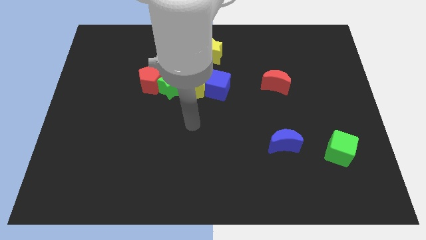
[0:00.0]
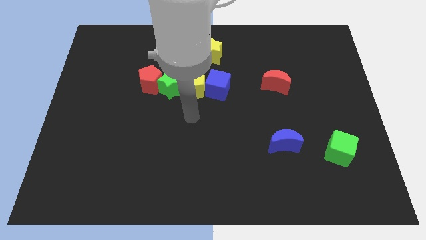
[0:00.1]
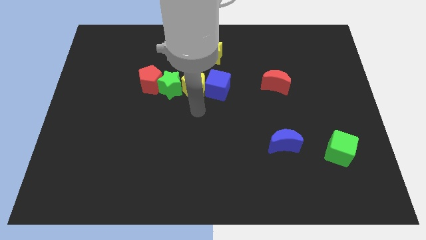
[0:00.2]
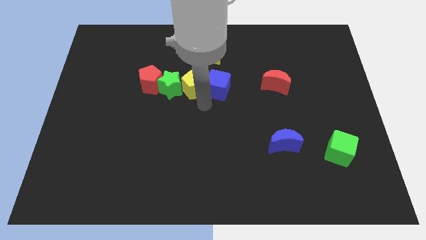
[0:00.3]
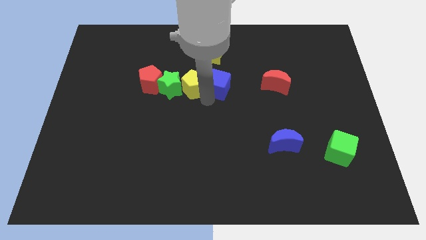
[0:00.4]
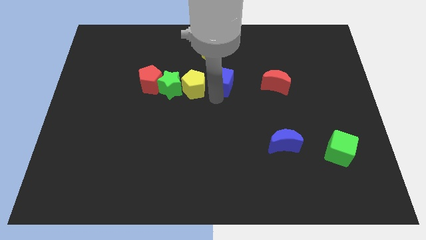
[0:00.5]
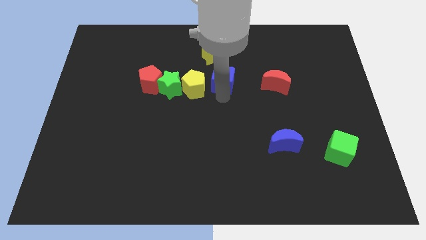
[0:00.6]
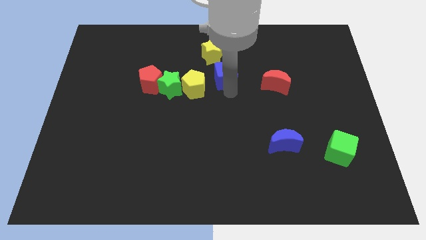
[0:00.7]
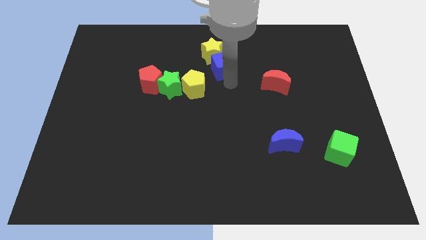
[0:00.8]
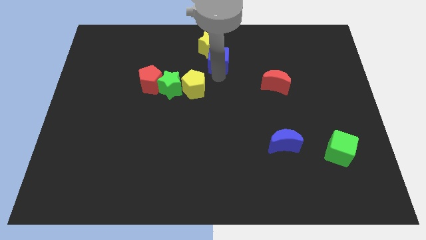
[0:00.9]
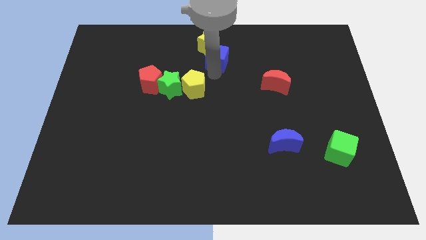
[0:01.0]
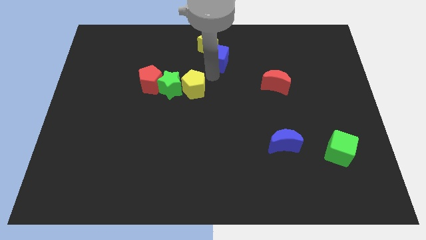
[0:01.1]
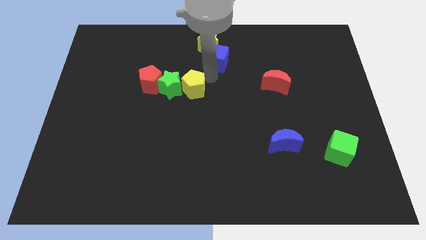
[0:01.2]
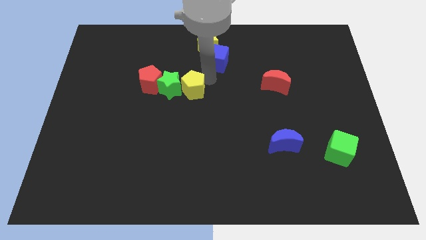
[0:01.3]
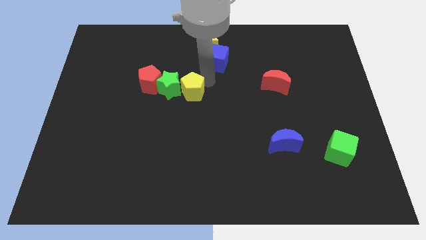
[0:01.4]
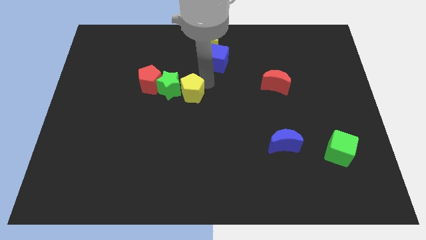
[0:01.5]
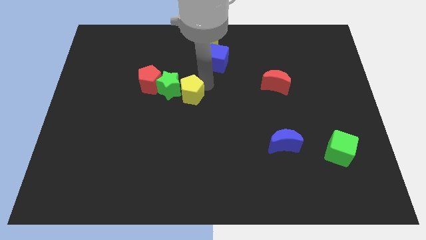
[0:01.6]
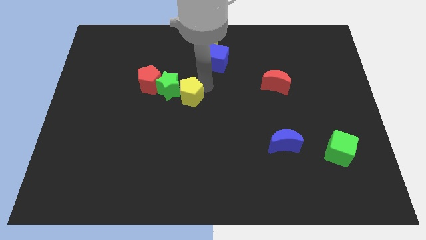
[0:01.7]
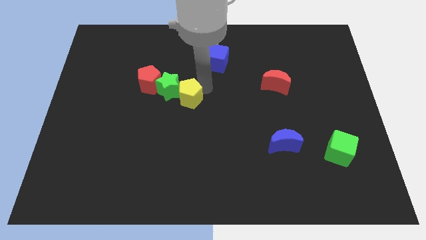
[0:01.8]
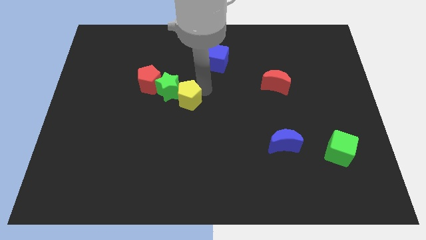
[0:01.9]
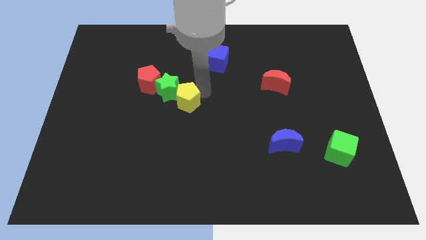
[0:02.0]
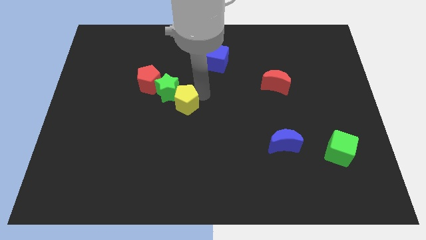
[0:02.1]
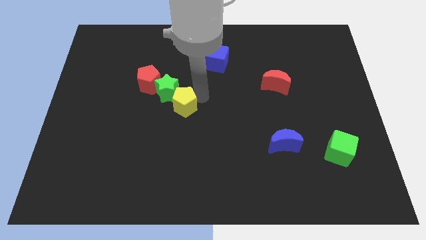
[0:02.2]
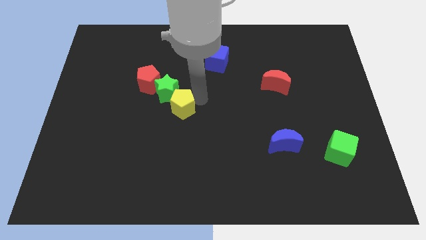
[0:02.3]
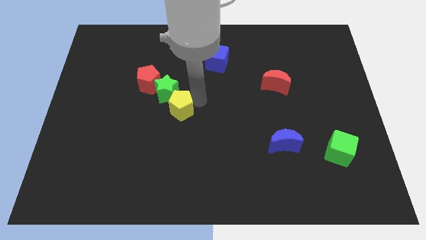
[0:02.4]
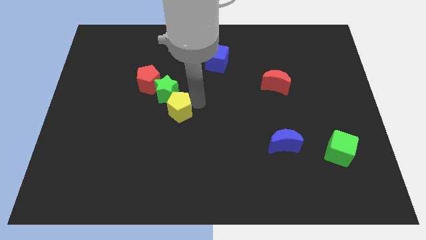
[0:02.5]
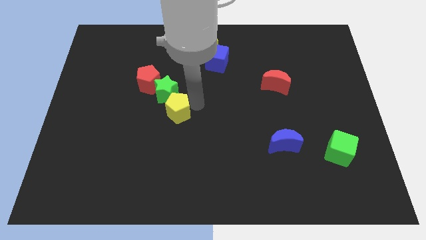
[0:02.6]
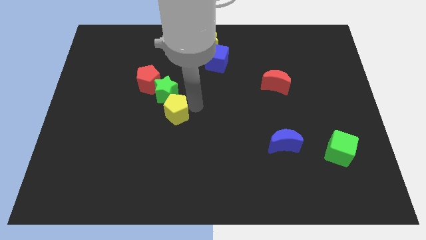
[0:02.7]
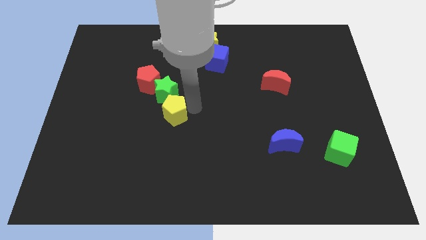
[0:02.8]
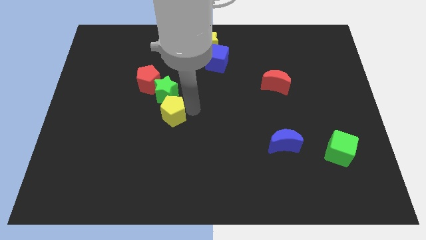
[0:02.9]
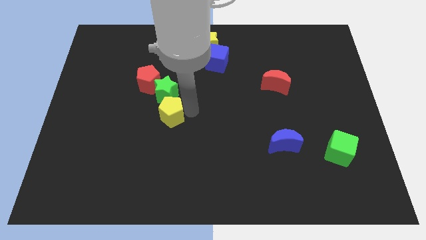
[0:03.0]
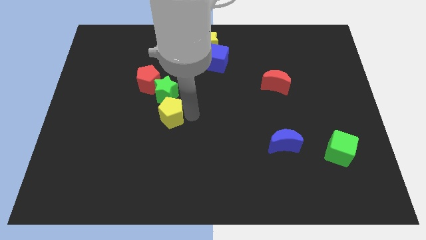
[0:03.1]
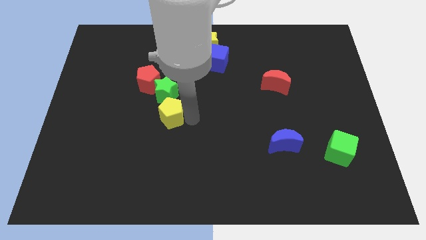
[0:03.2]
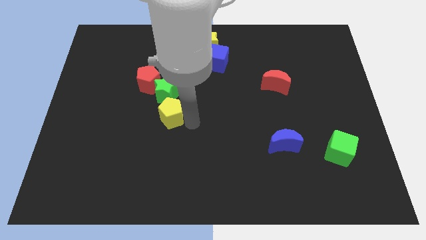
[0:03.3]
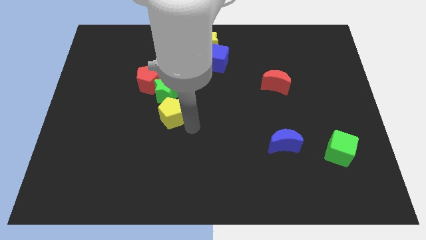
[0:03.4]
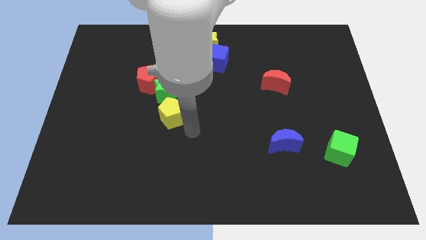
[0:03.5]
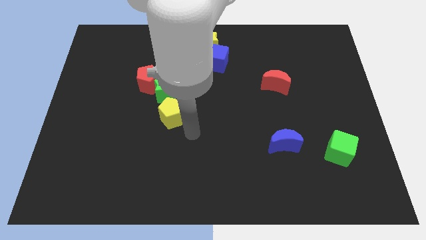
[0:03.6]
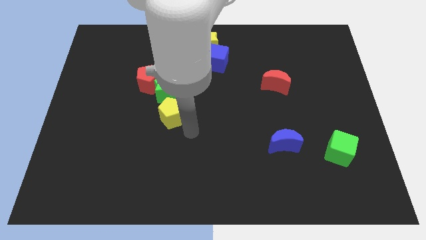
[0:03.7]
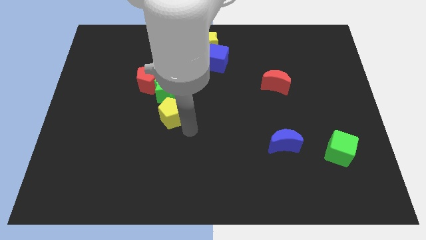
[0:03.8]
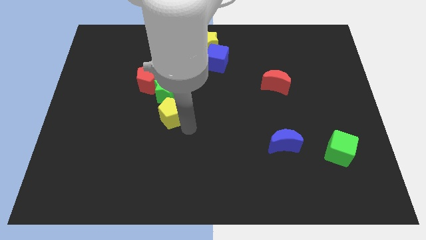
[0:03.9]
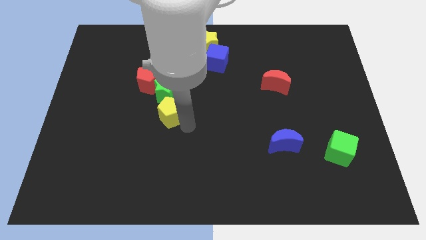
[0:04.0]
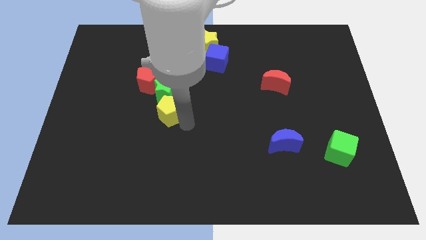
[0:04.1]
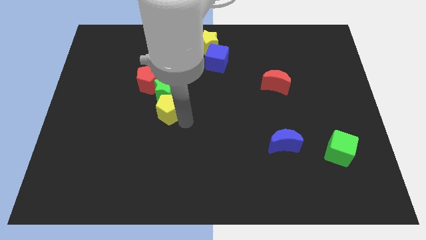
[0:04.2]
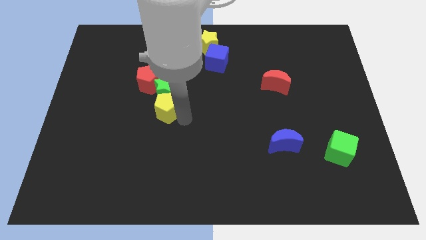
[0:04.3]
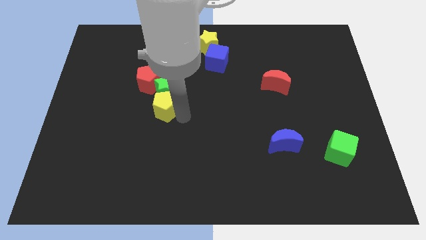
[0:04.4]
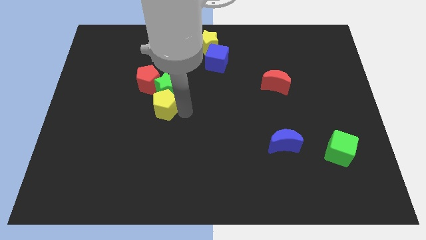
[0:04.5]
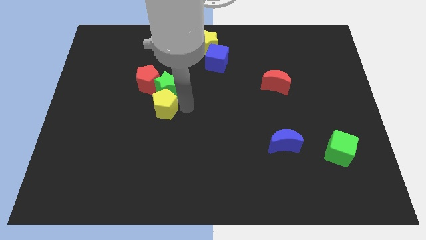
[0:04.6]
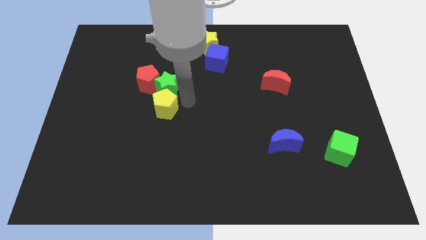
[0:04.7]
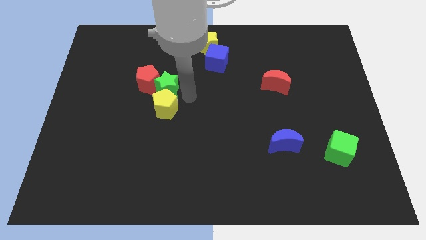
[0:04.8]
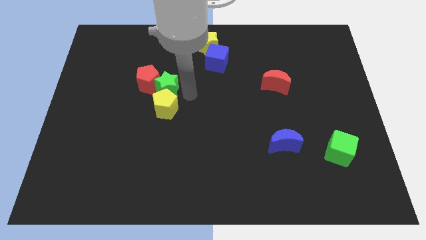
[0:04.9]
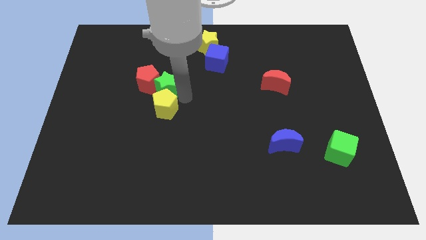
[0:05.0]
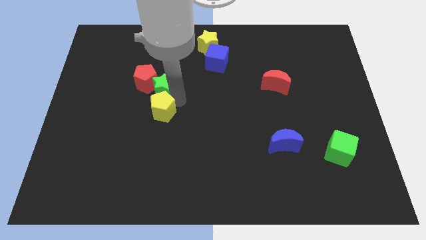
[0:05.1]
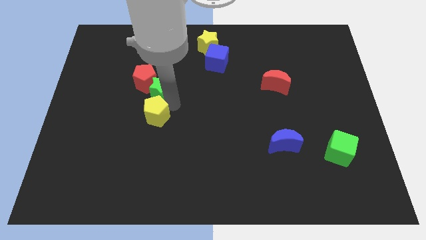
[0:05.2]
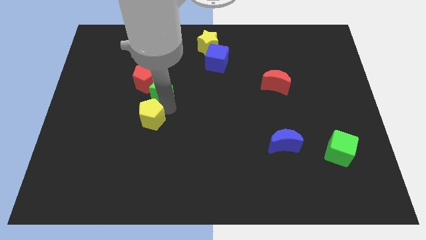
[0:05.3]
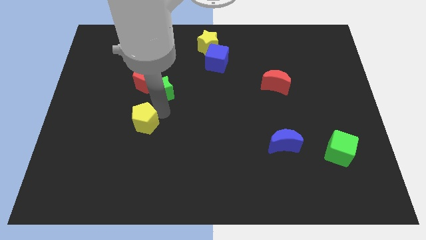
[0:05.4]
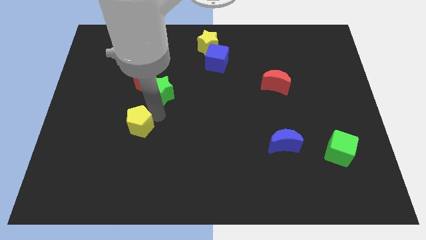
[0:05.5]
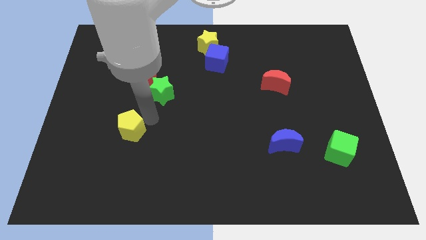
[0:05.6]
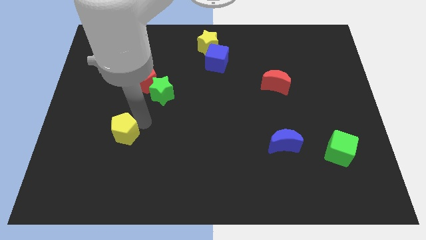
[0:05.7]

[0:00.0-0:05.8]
push the yellow pentagon downwards and left

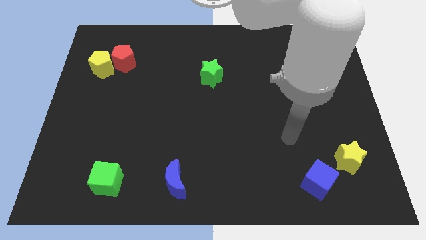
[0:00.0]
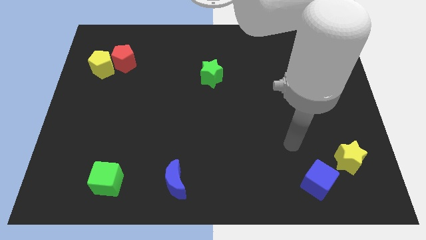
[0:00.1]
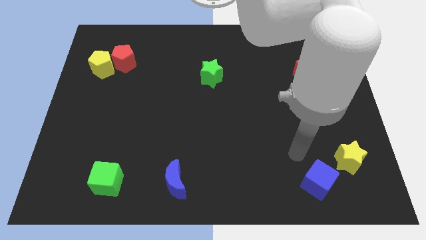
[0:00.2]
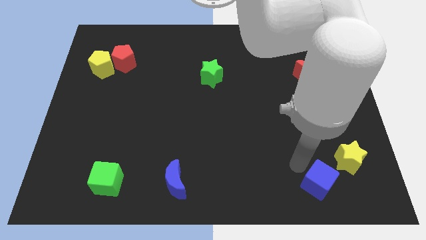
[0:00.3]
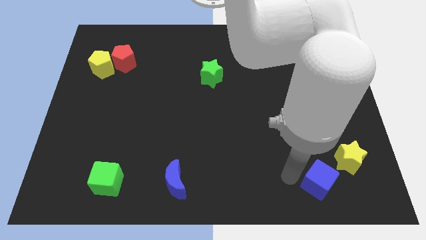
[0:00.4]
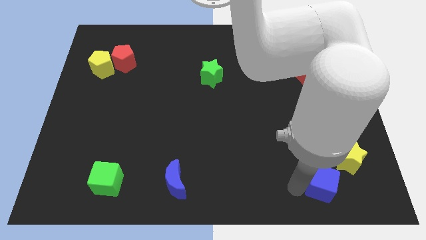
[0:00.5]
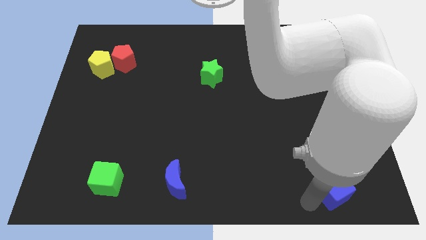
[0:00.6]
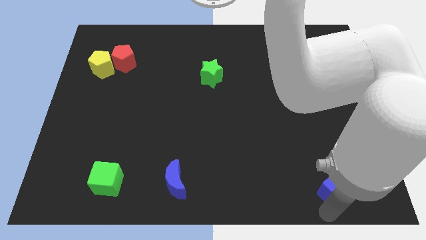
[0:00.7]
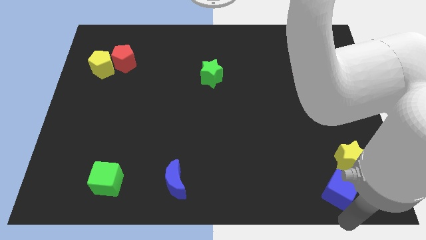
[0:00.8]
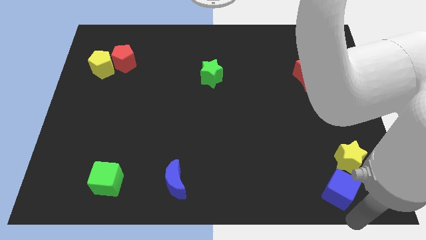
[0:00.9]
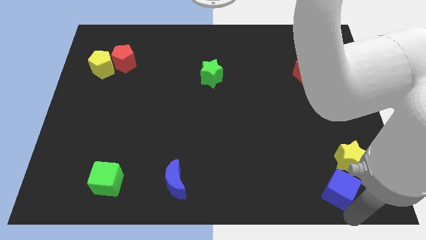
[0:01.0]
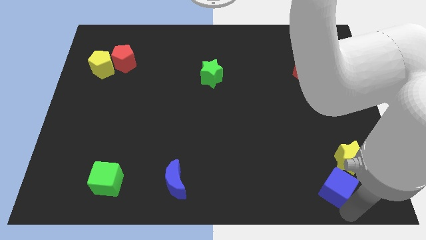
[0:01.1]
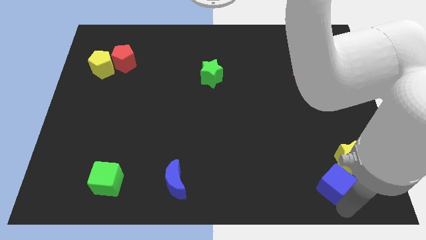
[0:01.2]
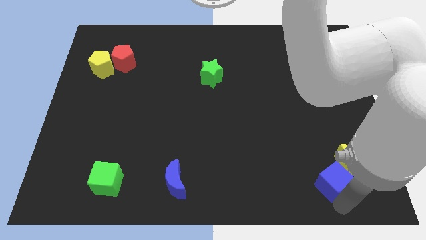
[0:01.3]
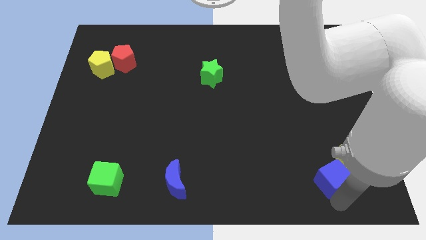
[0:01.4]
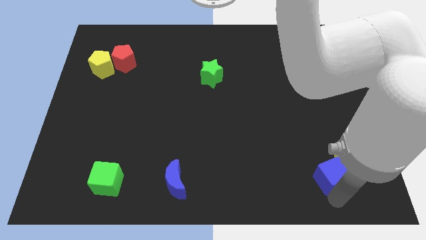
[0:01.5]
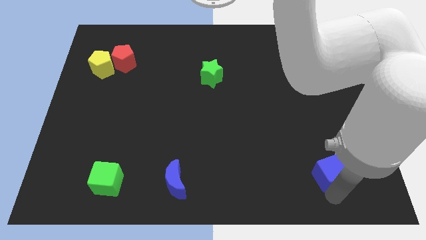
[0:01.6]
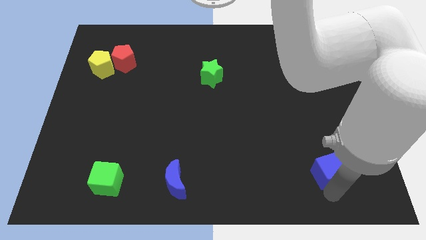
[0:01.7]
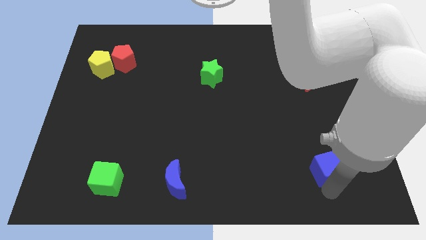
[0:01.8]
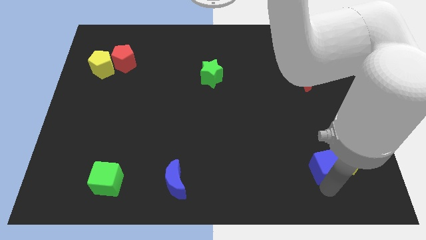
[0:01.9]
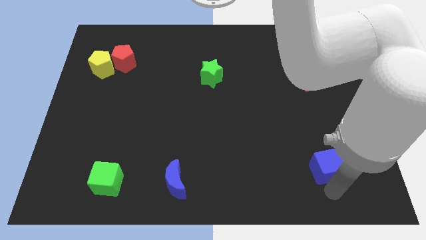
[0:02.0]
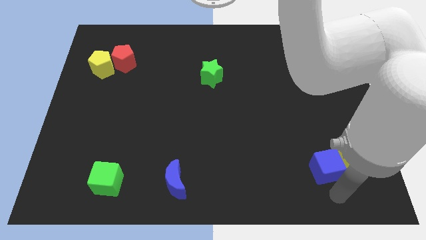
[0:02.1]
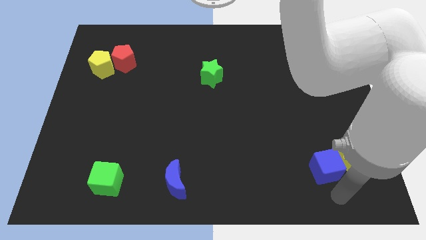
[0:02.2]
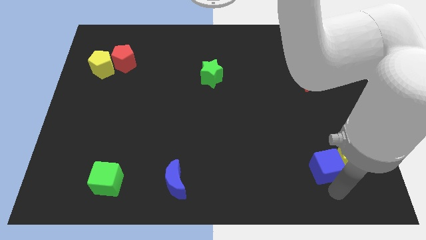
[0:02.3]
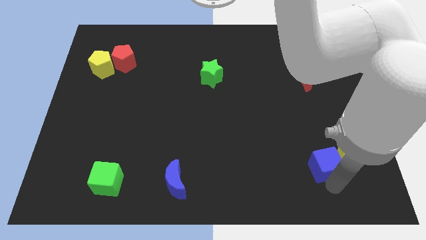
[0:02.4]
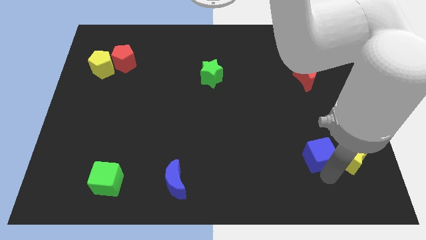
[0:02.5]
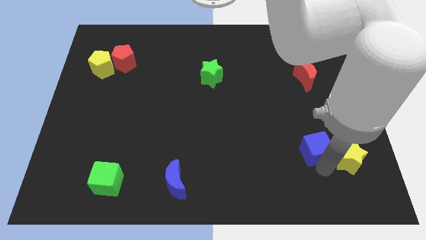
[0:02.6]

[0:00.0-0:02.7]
move the blue cube up a little
